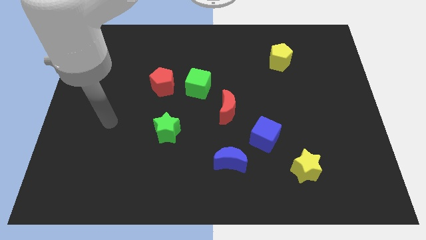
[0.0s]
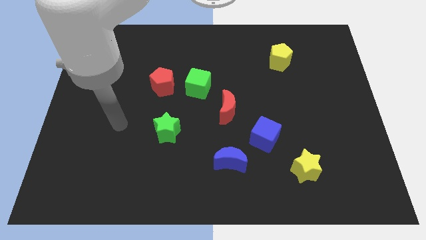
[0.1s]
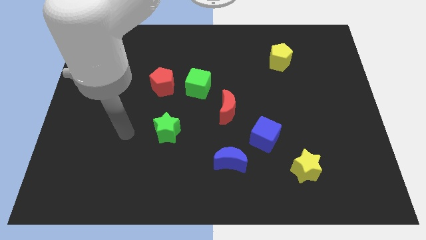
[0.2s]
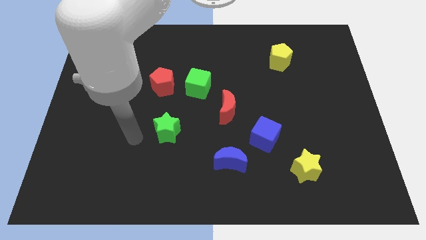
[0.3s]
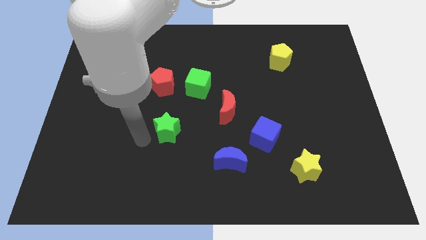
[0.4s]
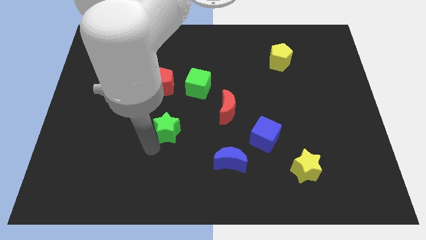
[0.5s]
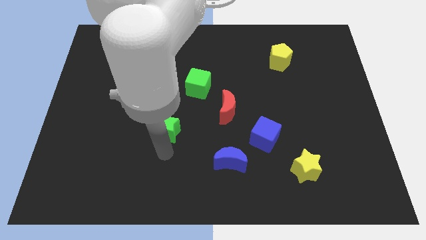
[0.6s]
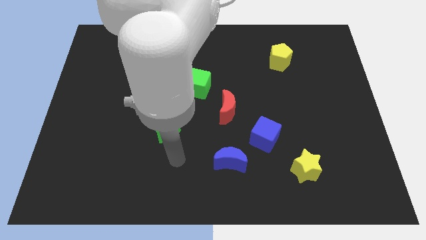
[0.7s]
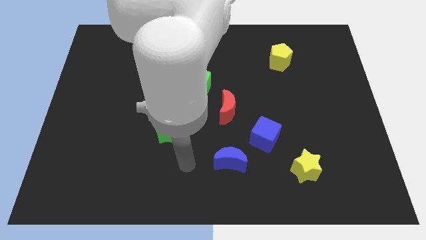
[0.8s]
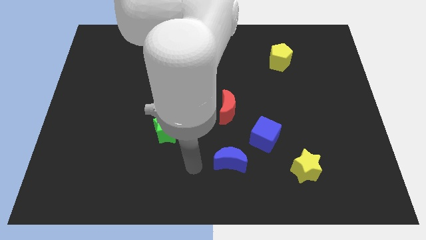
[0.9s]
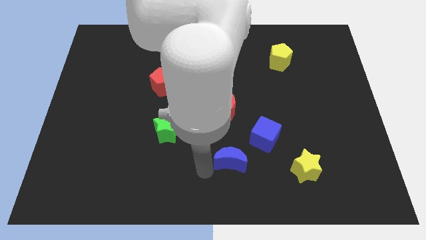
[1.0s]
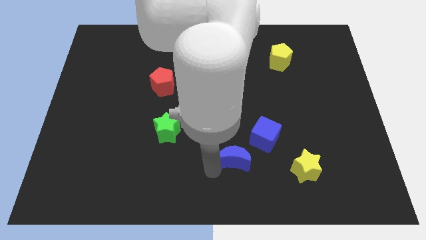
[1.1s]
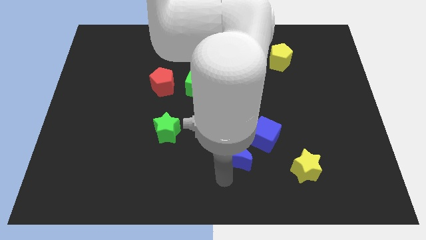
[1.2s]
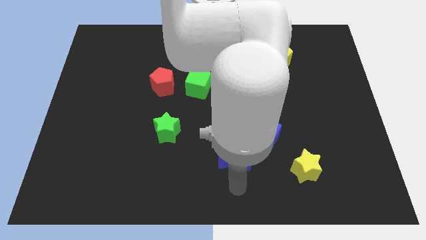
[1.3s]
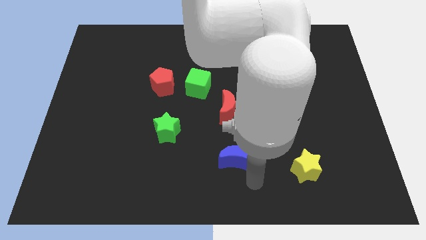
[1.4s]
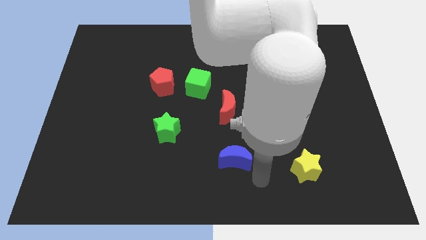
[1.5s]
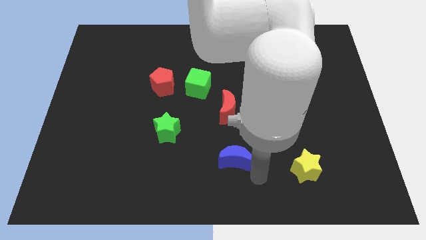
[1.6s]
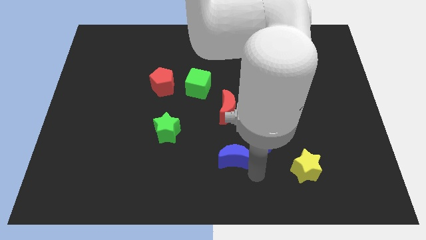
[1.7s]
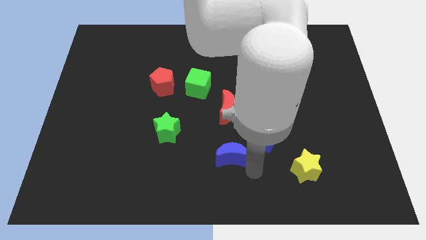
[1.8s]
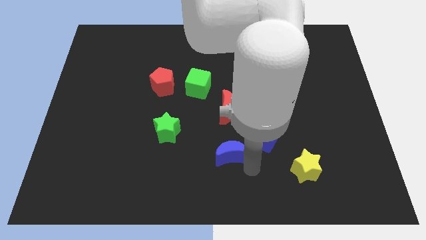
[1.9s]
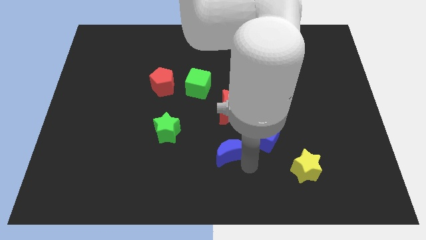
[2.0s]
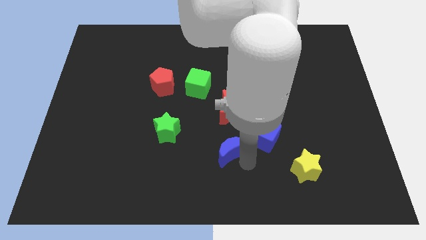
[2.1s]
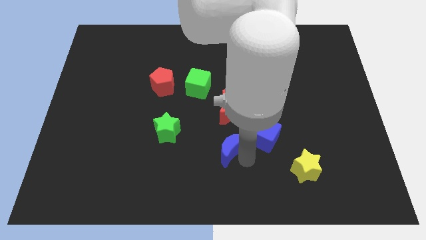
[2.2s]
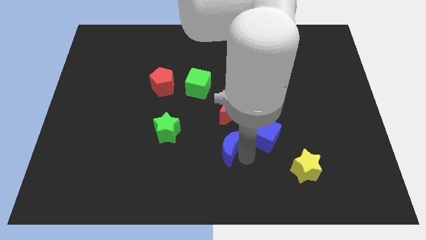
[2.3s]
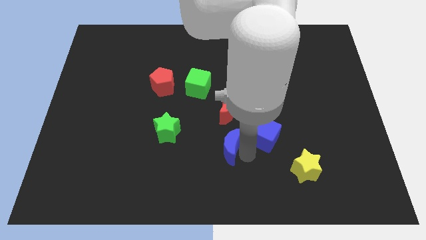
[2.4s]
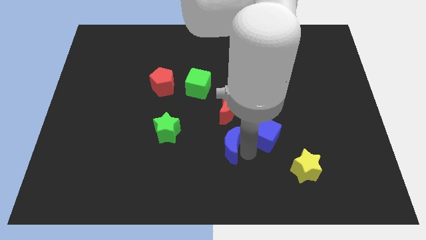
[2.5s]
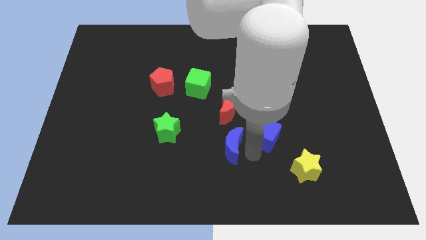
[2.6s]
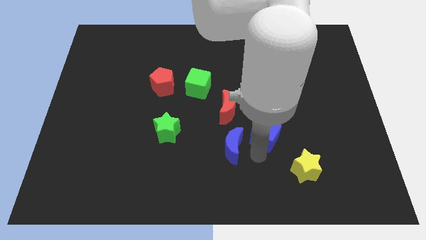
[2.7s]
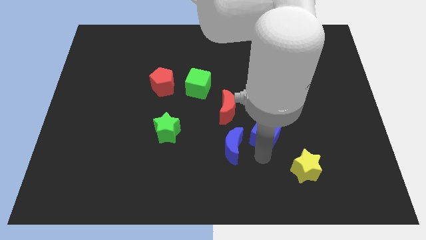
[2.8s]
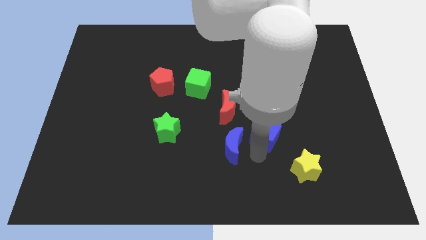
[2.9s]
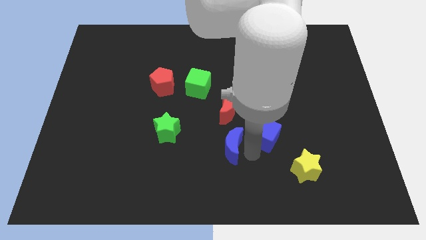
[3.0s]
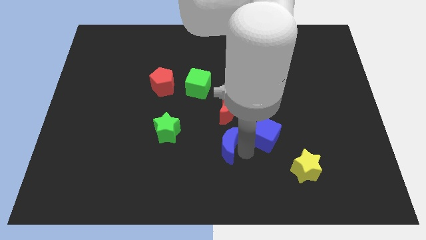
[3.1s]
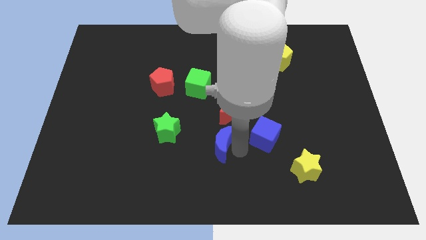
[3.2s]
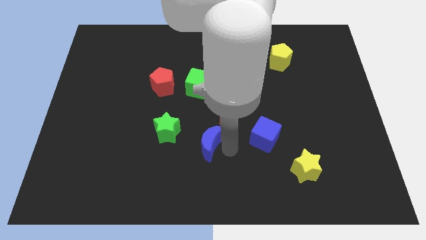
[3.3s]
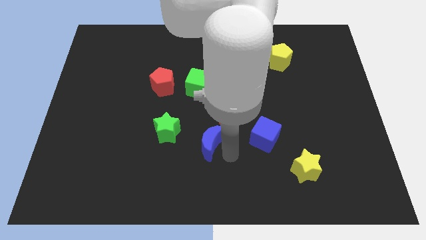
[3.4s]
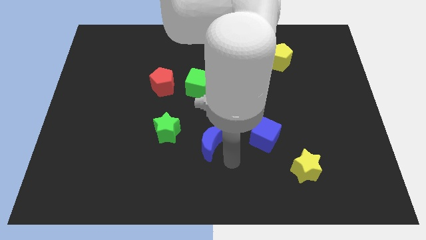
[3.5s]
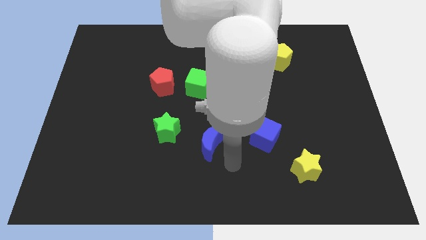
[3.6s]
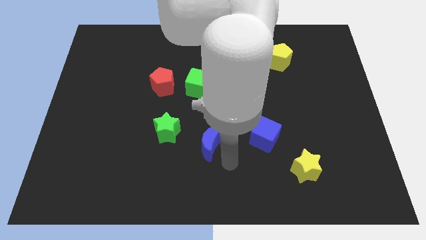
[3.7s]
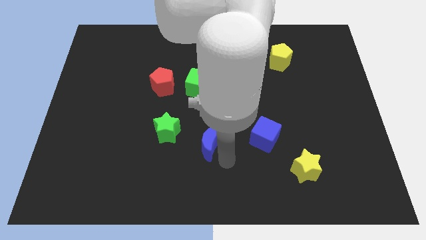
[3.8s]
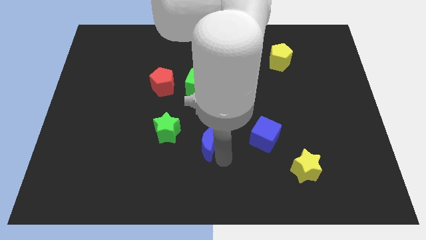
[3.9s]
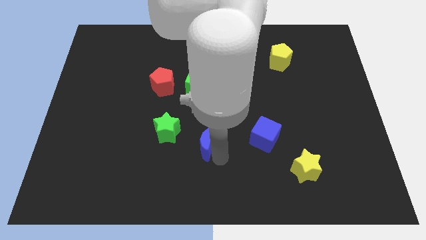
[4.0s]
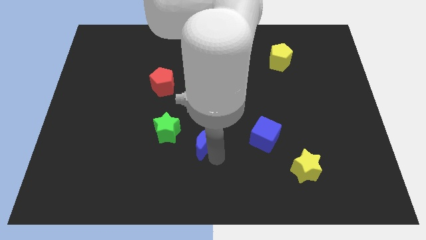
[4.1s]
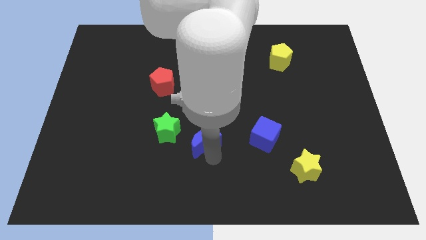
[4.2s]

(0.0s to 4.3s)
move the blue moon up and to the left a bit

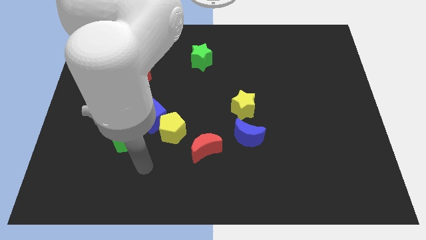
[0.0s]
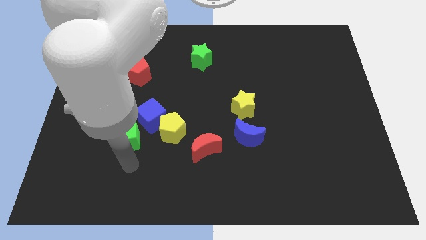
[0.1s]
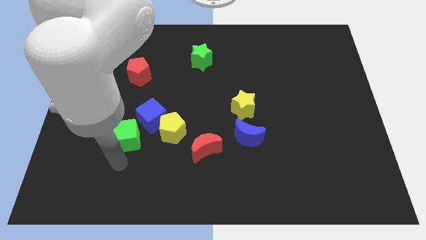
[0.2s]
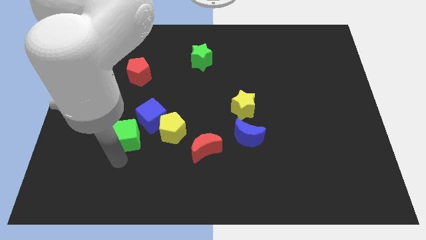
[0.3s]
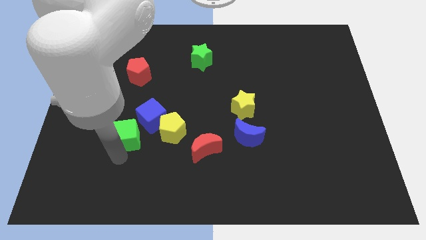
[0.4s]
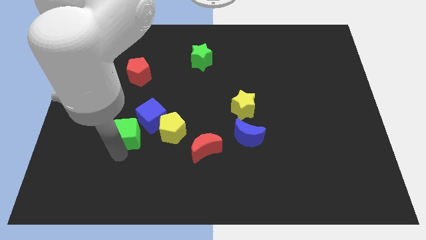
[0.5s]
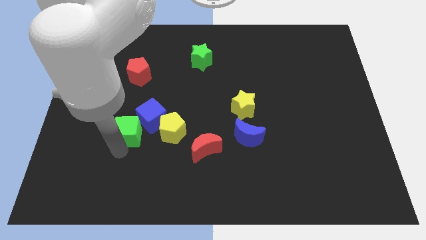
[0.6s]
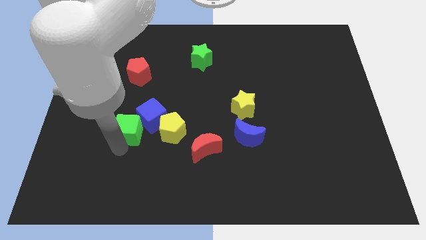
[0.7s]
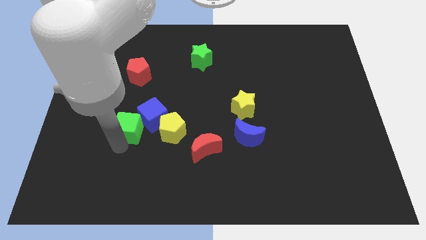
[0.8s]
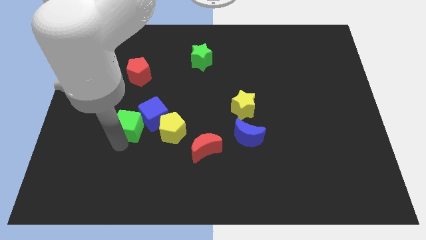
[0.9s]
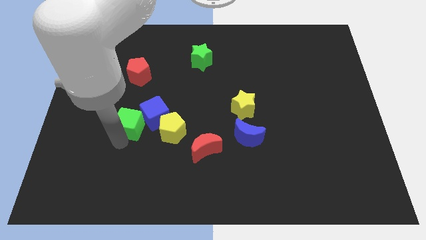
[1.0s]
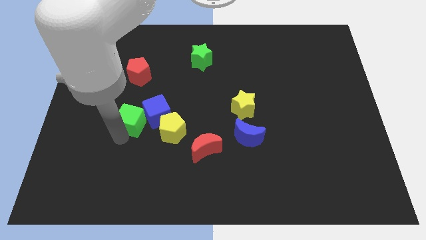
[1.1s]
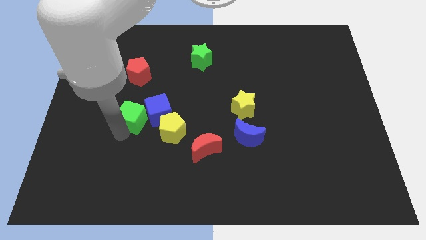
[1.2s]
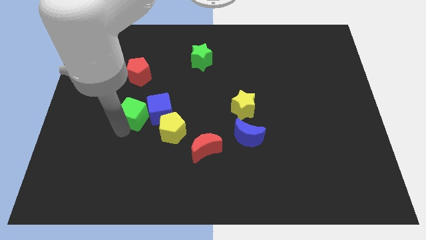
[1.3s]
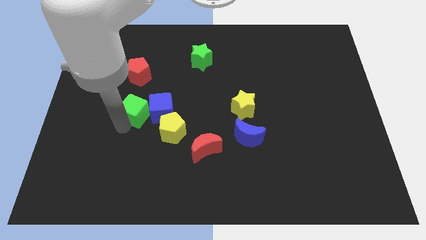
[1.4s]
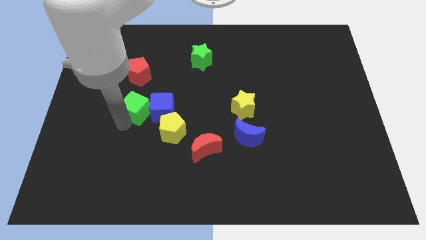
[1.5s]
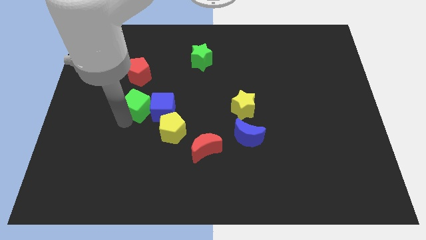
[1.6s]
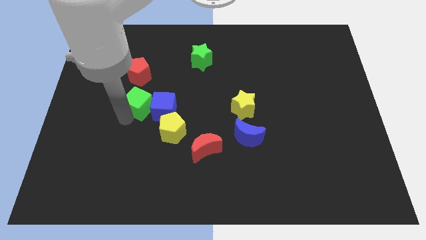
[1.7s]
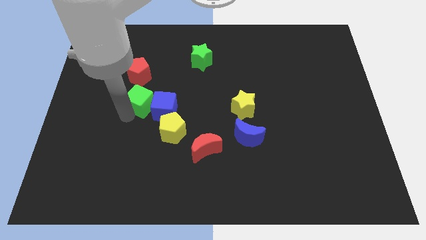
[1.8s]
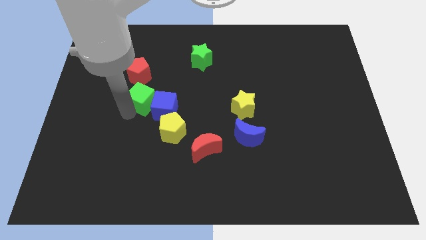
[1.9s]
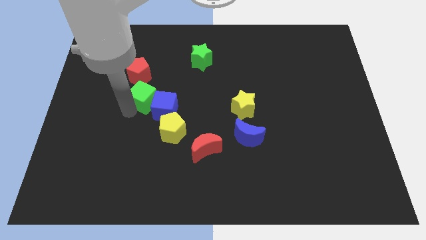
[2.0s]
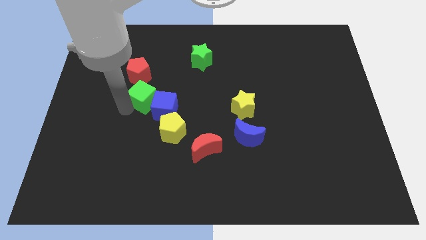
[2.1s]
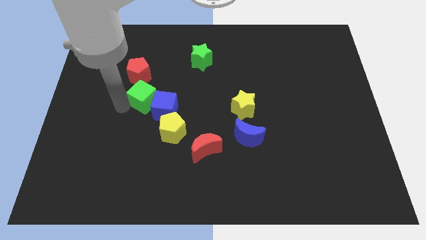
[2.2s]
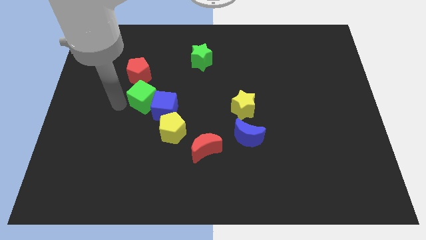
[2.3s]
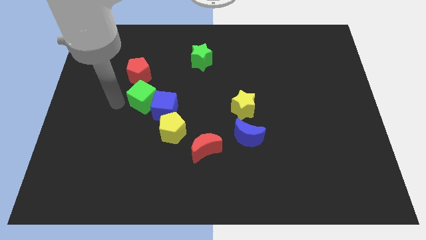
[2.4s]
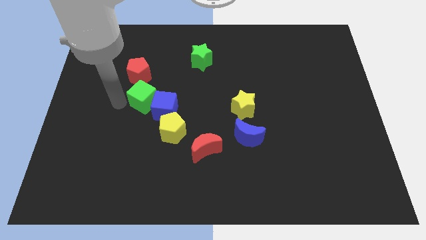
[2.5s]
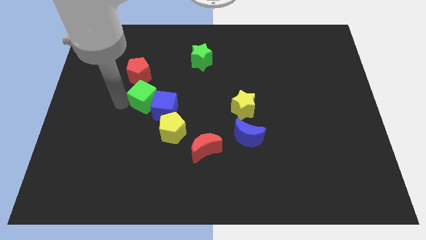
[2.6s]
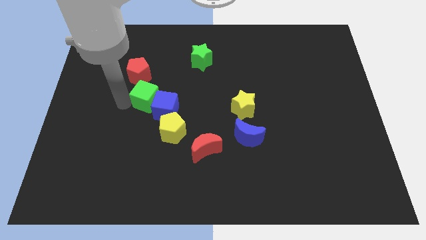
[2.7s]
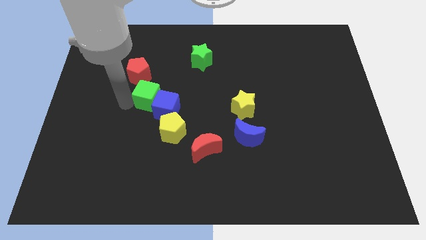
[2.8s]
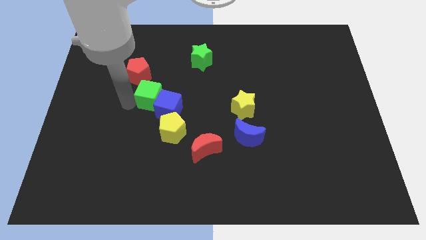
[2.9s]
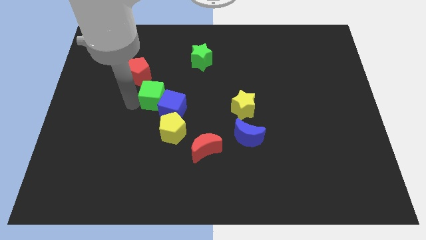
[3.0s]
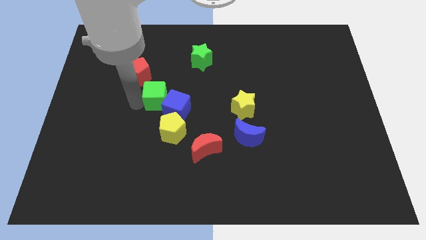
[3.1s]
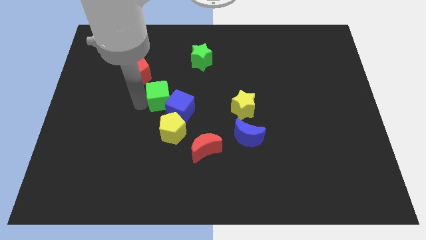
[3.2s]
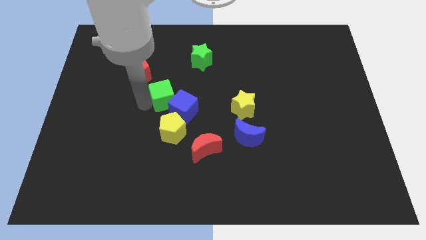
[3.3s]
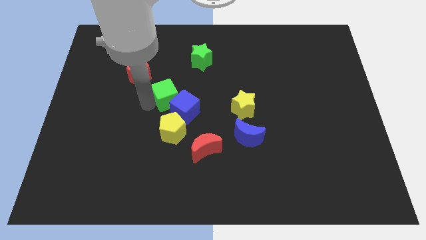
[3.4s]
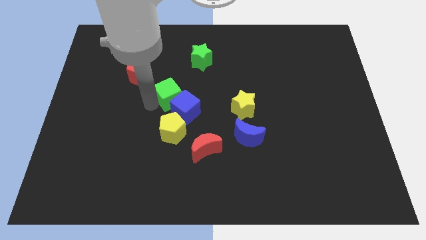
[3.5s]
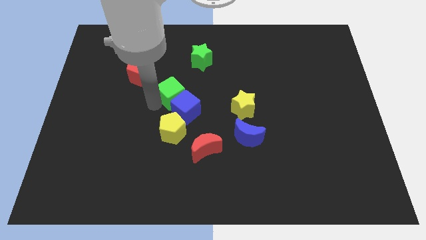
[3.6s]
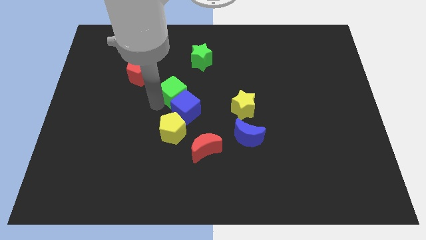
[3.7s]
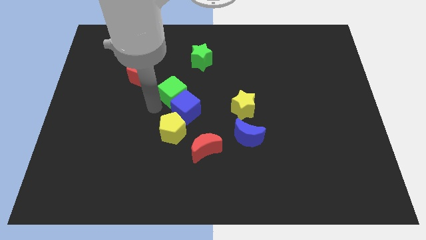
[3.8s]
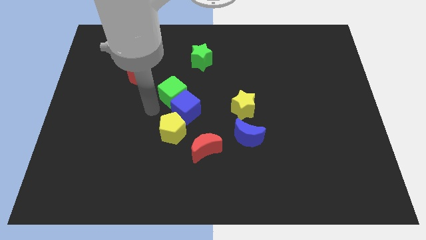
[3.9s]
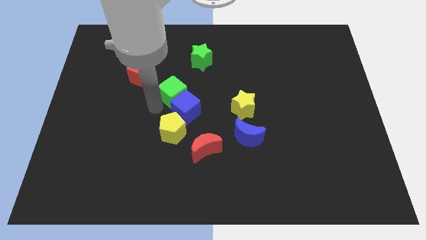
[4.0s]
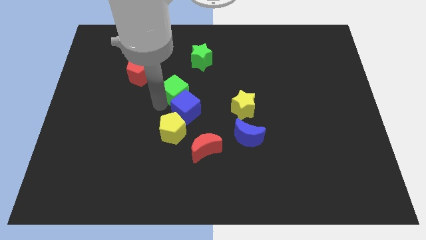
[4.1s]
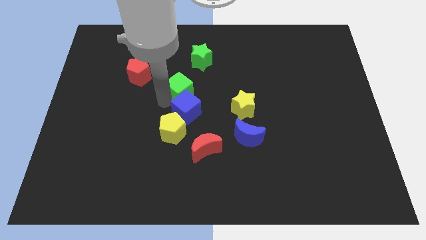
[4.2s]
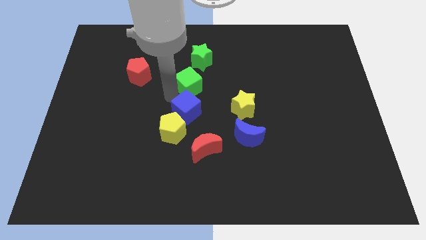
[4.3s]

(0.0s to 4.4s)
push the green cube upwards and then to the right
